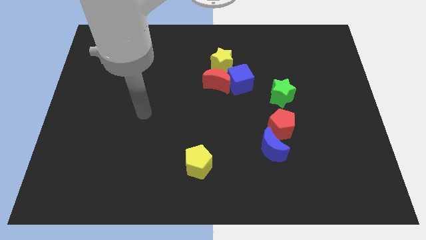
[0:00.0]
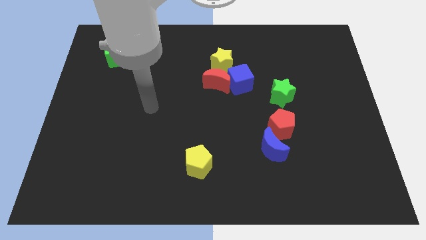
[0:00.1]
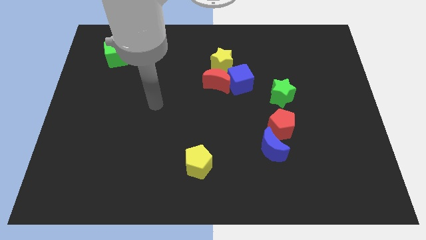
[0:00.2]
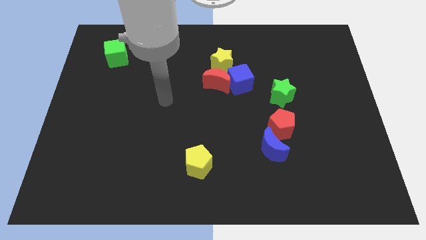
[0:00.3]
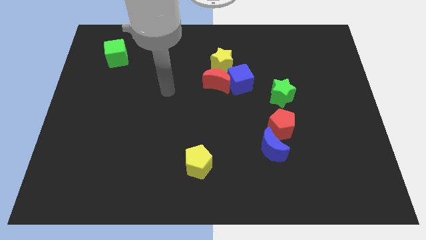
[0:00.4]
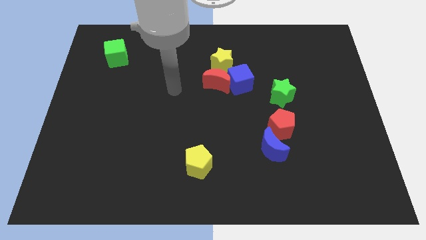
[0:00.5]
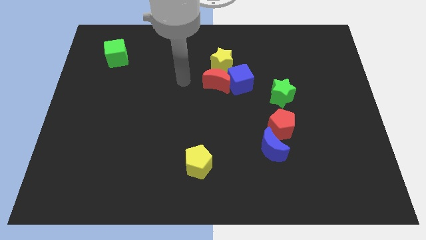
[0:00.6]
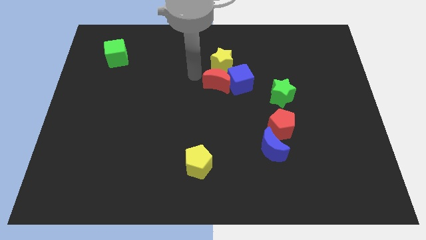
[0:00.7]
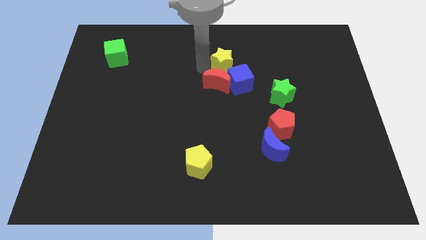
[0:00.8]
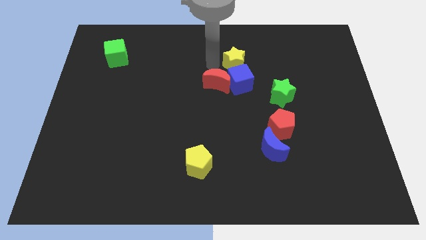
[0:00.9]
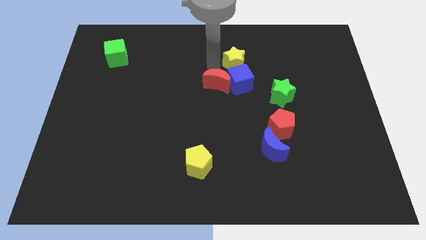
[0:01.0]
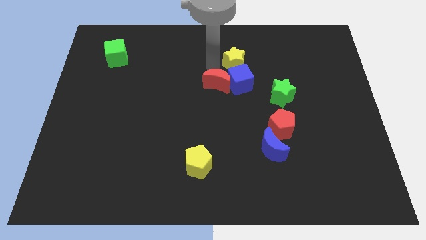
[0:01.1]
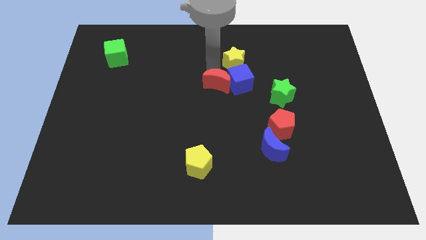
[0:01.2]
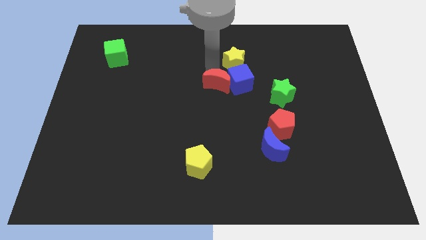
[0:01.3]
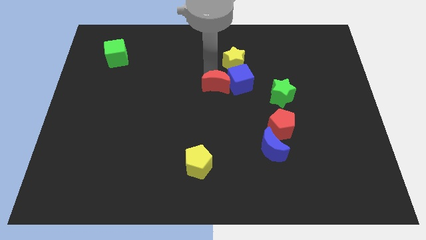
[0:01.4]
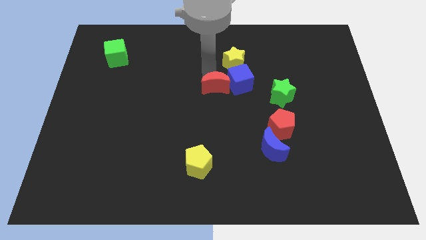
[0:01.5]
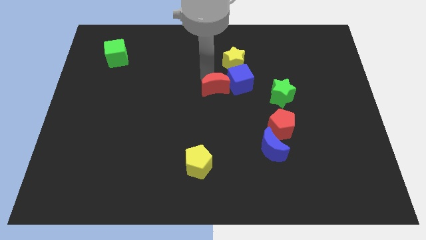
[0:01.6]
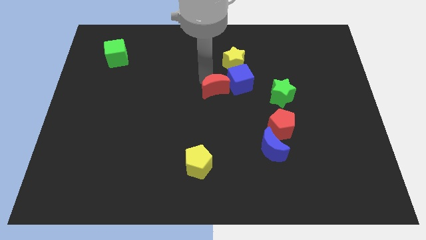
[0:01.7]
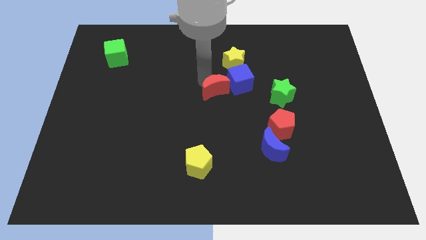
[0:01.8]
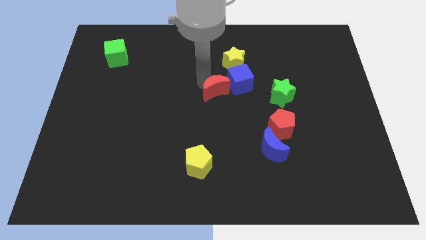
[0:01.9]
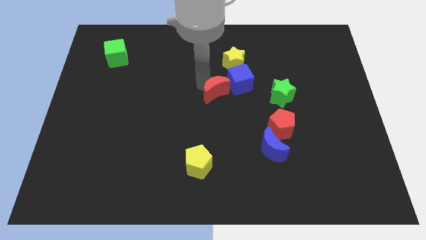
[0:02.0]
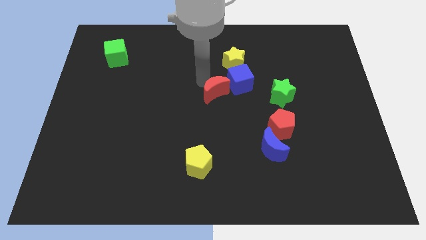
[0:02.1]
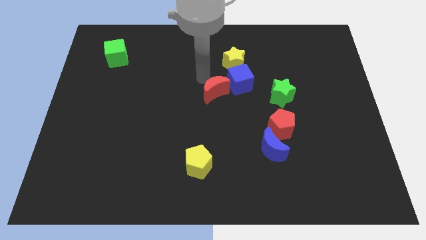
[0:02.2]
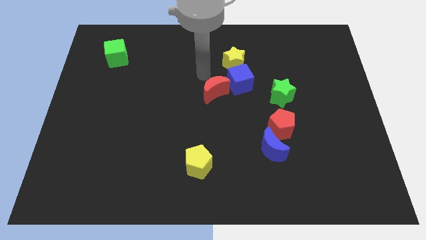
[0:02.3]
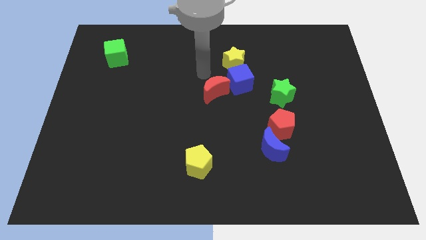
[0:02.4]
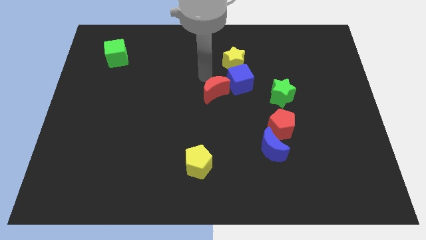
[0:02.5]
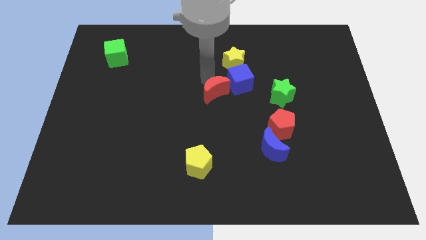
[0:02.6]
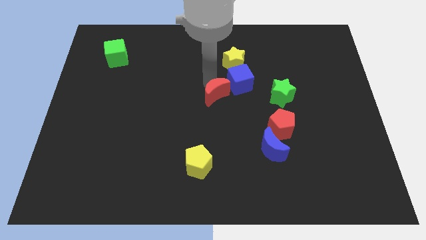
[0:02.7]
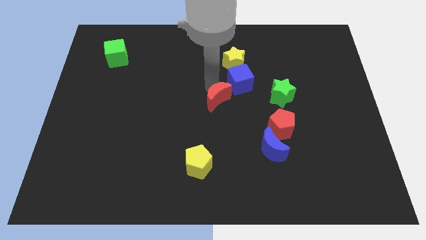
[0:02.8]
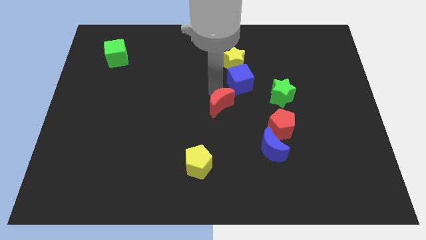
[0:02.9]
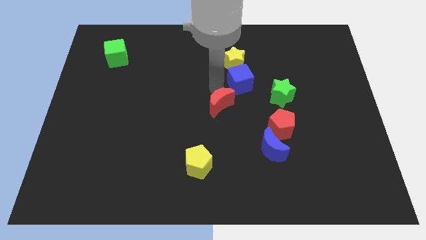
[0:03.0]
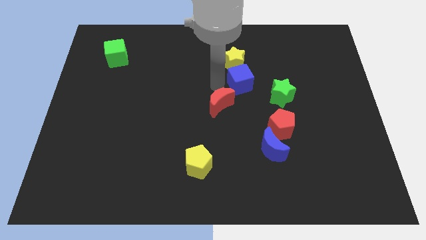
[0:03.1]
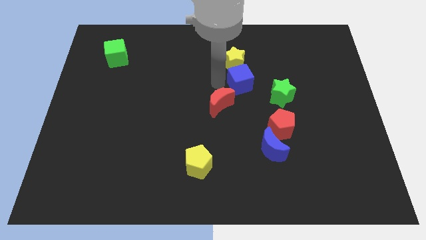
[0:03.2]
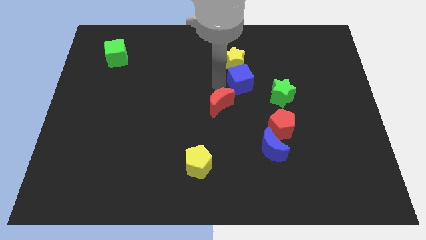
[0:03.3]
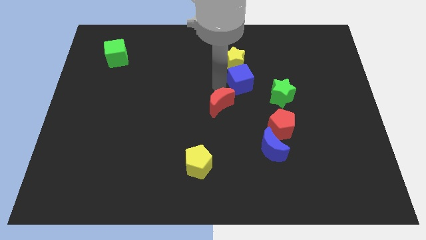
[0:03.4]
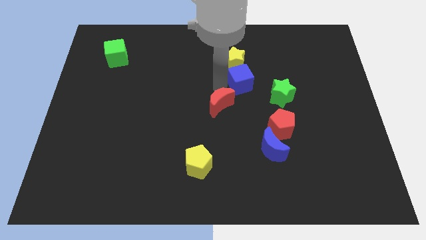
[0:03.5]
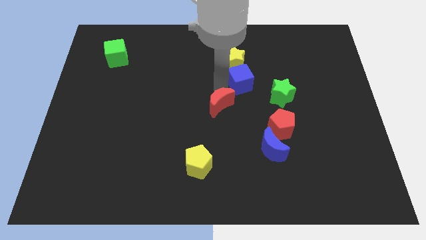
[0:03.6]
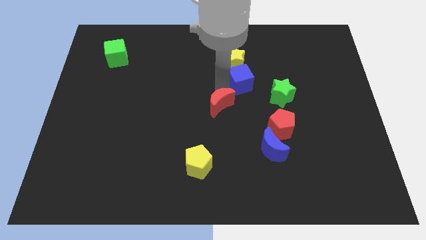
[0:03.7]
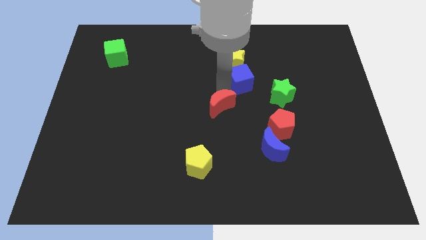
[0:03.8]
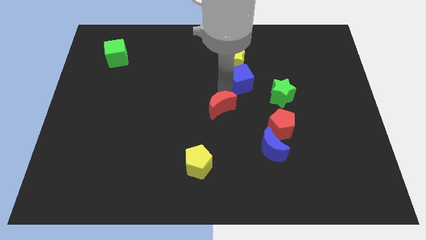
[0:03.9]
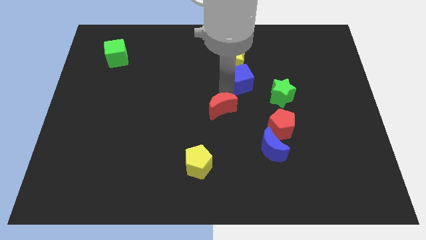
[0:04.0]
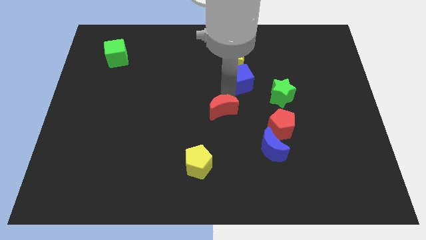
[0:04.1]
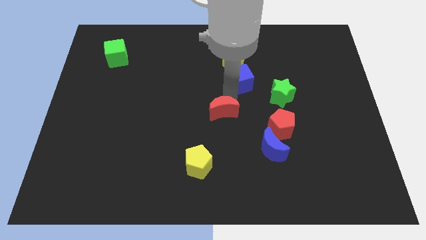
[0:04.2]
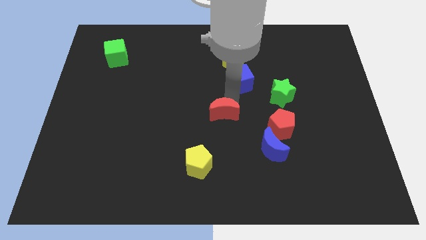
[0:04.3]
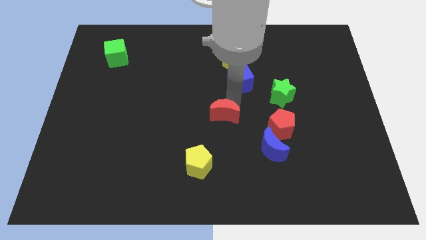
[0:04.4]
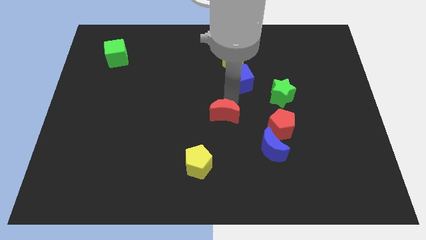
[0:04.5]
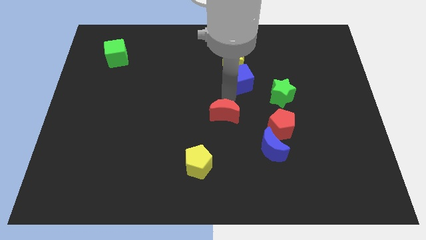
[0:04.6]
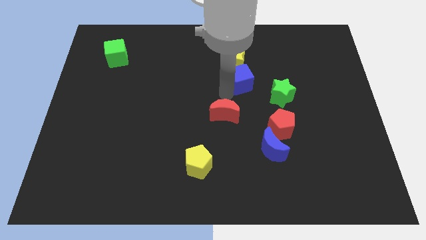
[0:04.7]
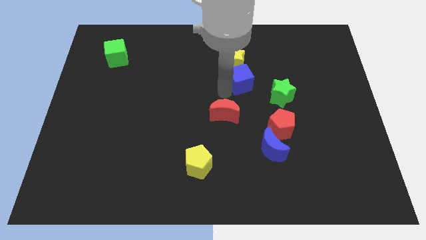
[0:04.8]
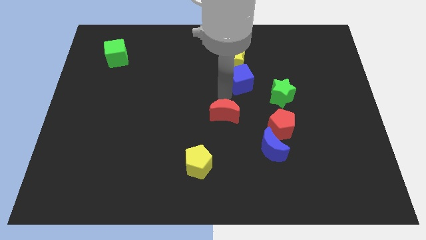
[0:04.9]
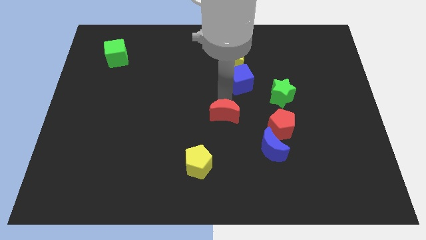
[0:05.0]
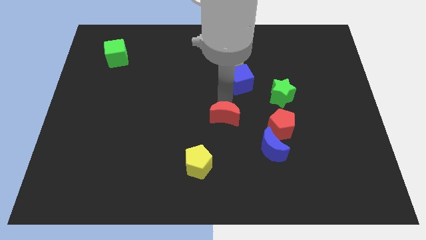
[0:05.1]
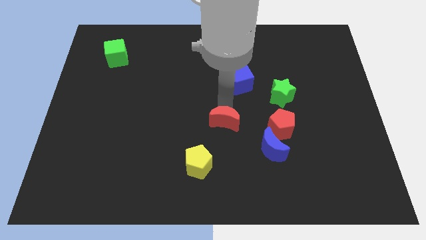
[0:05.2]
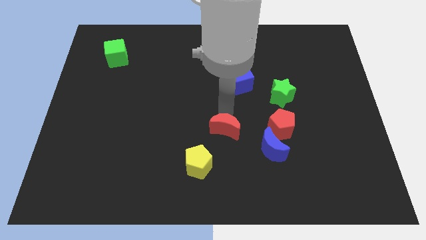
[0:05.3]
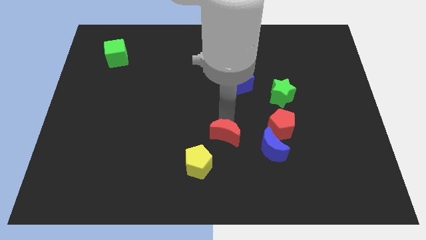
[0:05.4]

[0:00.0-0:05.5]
move the red moon left of the blue moon
